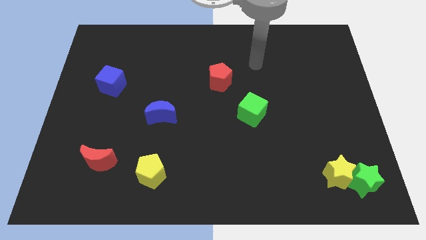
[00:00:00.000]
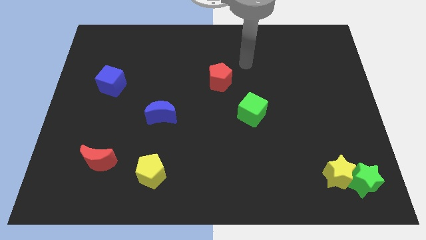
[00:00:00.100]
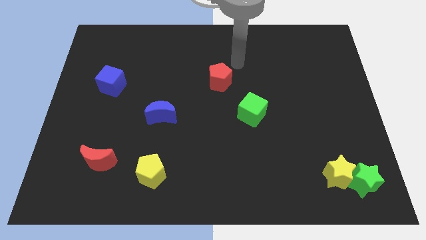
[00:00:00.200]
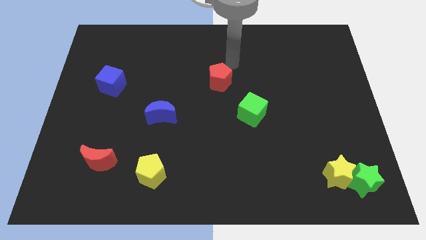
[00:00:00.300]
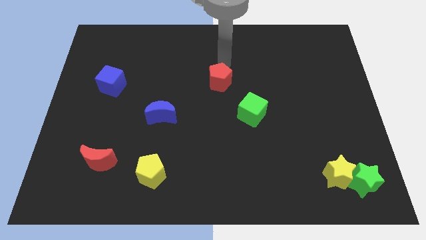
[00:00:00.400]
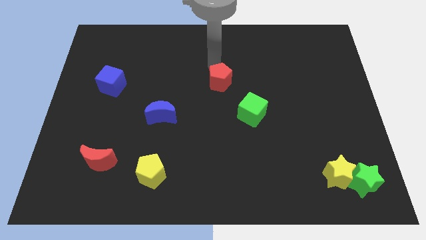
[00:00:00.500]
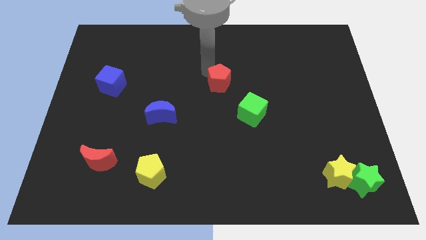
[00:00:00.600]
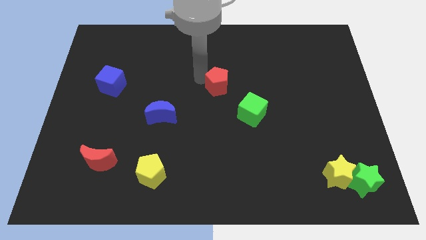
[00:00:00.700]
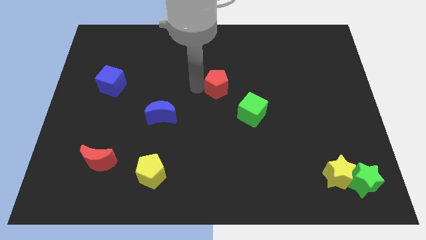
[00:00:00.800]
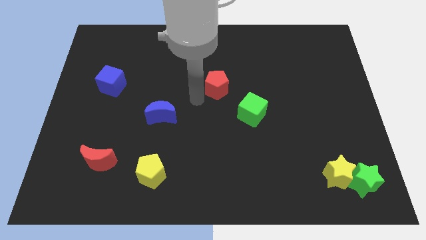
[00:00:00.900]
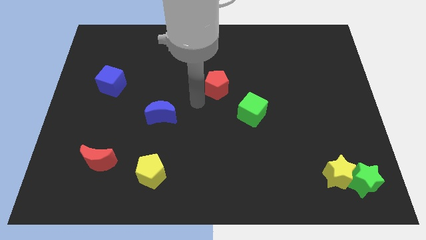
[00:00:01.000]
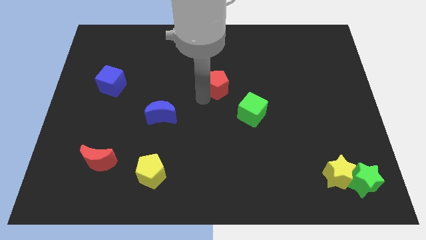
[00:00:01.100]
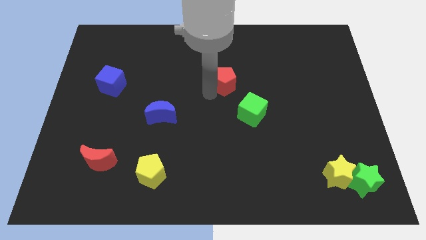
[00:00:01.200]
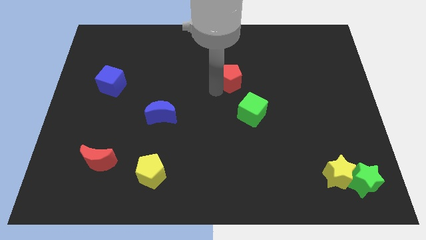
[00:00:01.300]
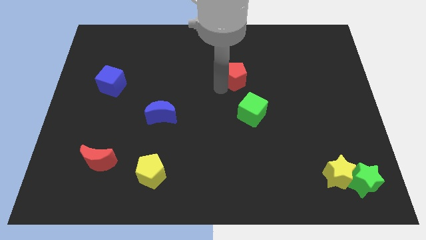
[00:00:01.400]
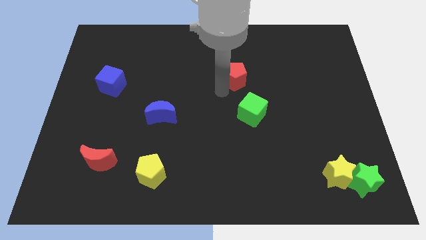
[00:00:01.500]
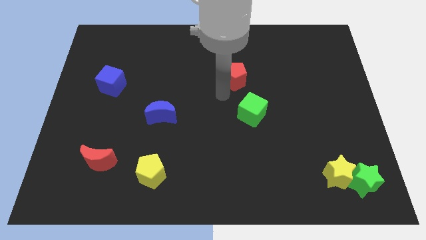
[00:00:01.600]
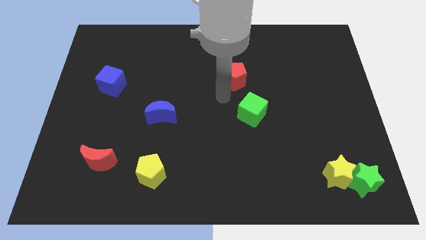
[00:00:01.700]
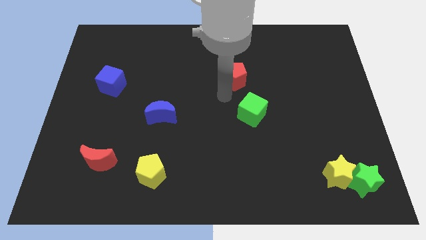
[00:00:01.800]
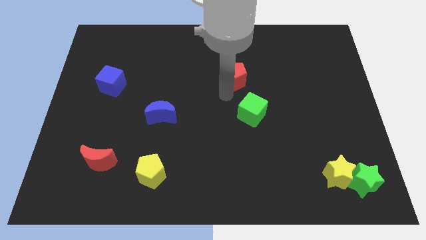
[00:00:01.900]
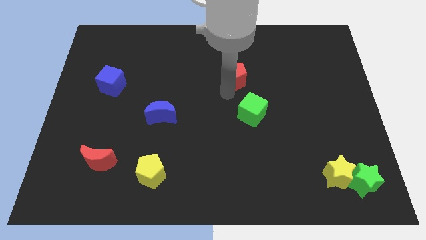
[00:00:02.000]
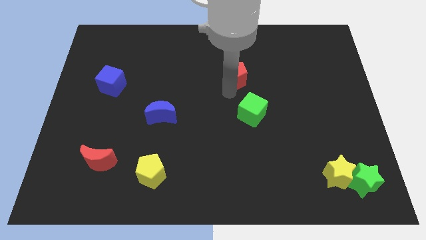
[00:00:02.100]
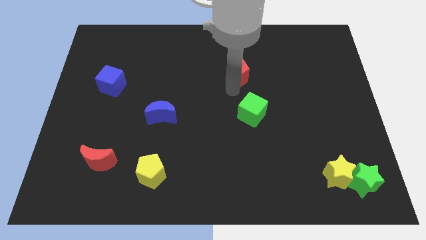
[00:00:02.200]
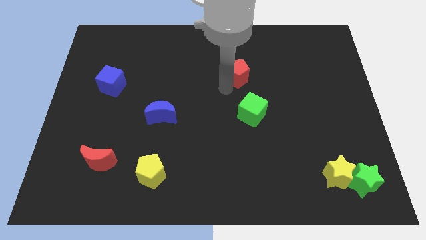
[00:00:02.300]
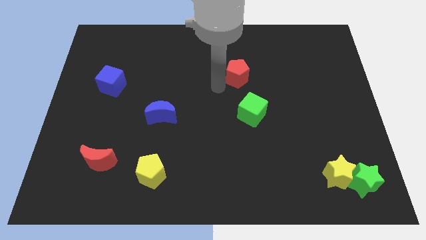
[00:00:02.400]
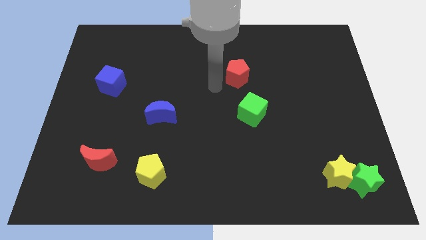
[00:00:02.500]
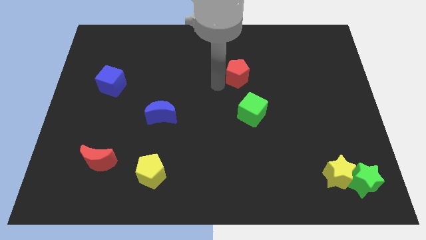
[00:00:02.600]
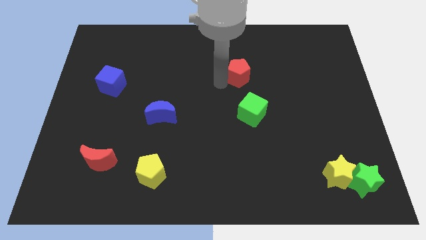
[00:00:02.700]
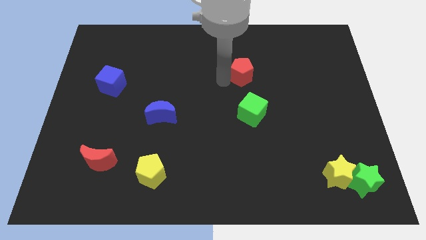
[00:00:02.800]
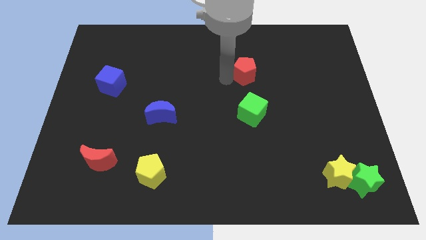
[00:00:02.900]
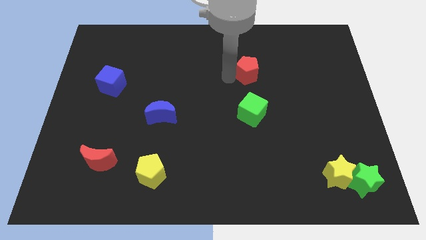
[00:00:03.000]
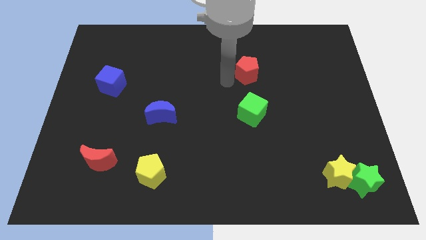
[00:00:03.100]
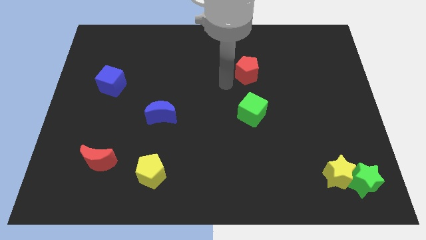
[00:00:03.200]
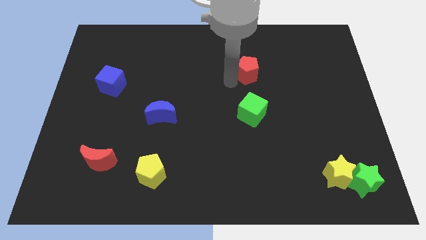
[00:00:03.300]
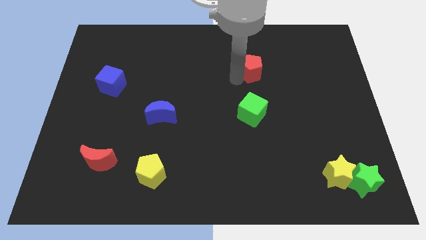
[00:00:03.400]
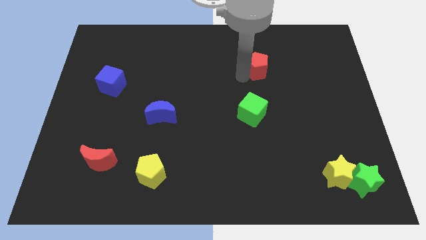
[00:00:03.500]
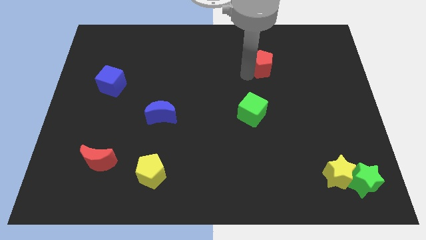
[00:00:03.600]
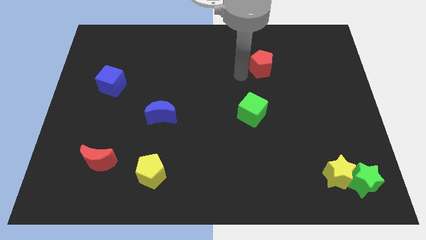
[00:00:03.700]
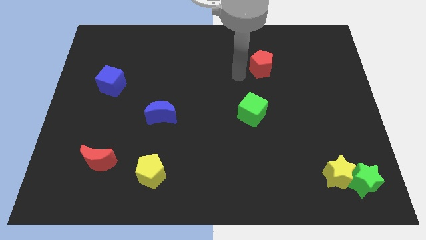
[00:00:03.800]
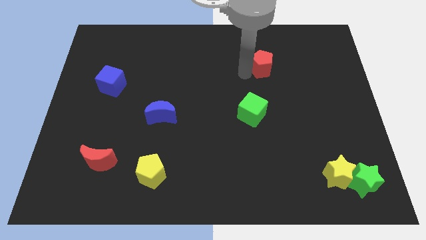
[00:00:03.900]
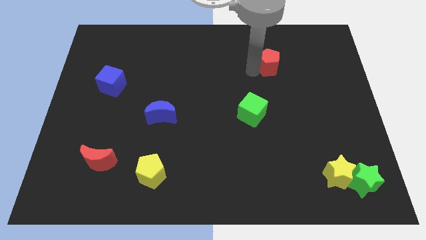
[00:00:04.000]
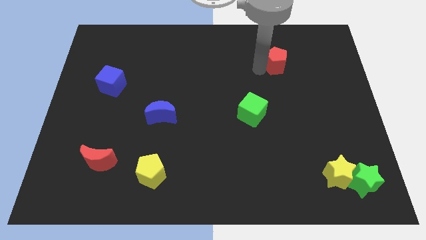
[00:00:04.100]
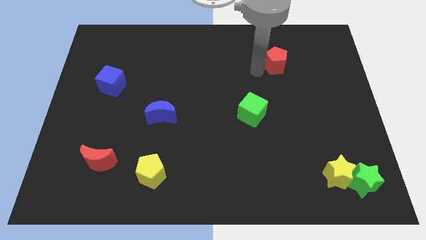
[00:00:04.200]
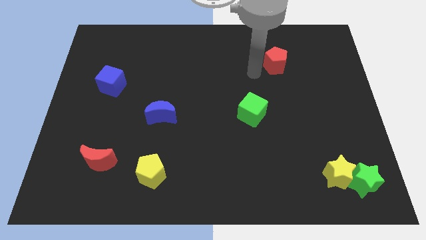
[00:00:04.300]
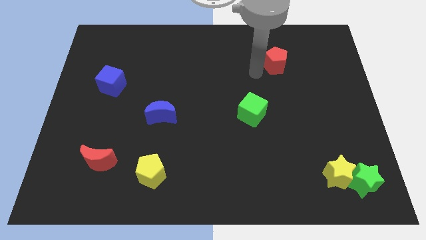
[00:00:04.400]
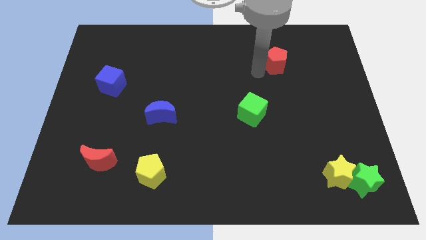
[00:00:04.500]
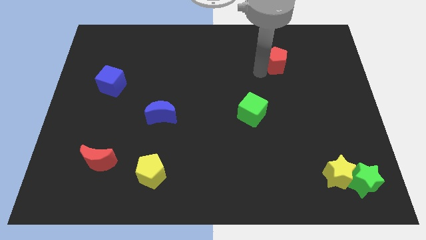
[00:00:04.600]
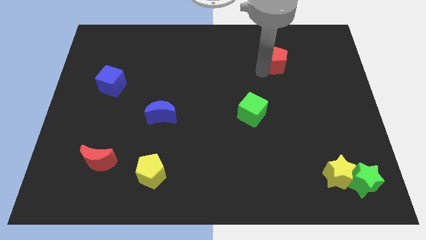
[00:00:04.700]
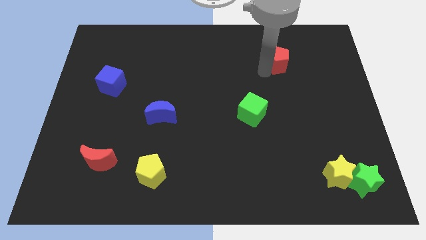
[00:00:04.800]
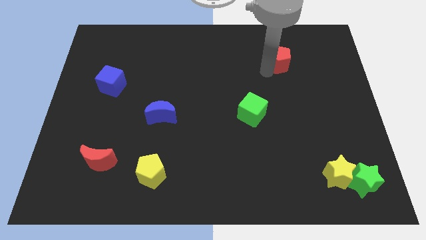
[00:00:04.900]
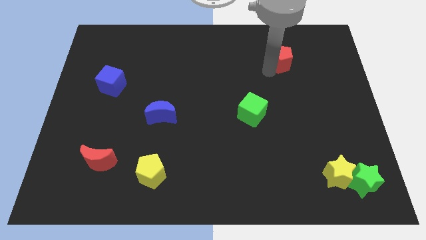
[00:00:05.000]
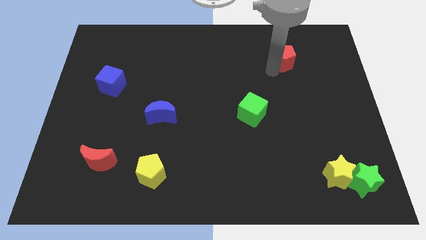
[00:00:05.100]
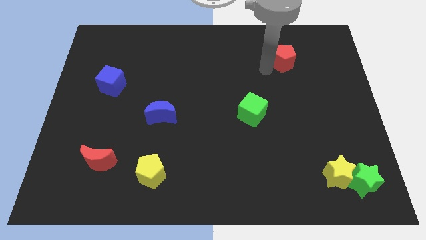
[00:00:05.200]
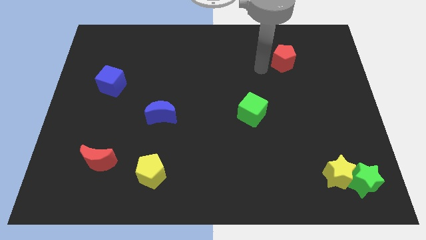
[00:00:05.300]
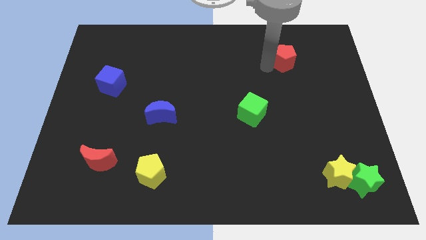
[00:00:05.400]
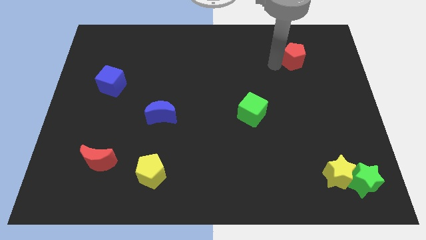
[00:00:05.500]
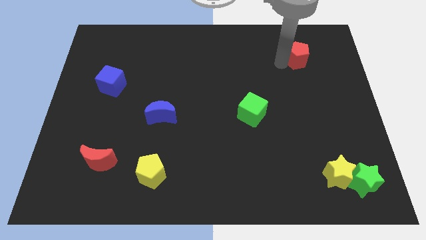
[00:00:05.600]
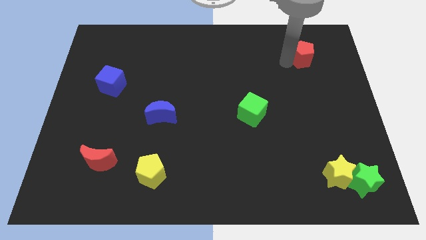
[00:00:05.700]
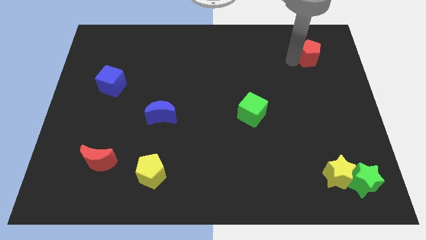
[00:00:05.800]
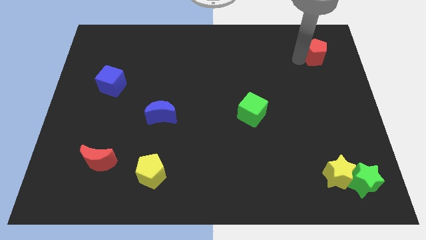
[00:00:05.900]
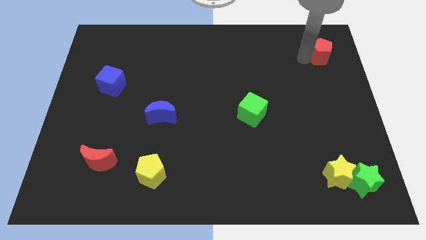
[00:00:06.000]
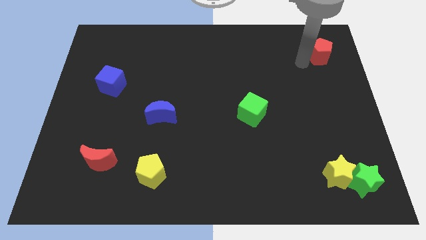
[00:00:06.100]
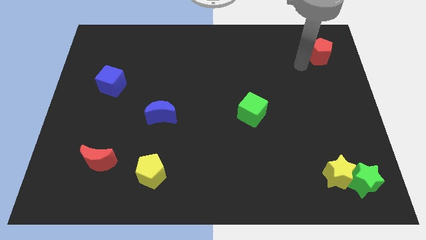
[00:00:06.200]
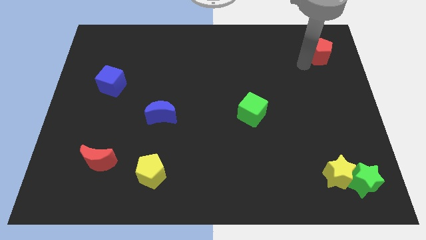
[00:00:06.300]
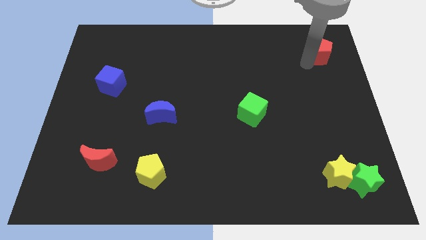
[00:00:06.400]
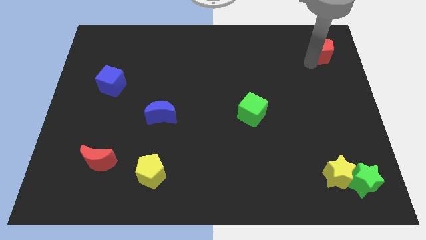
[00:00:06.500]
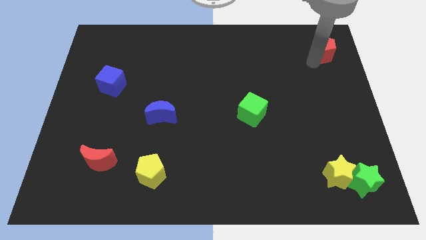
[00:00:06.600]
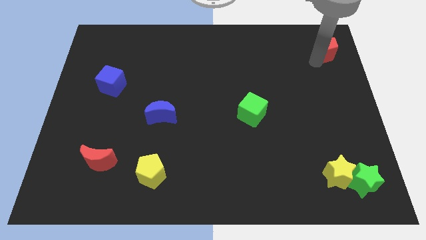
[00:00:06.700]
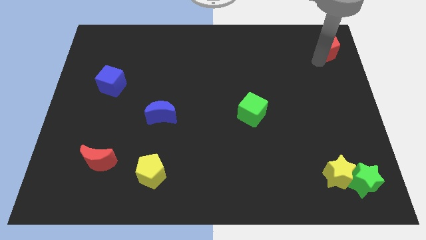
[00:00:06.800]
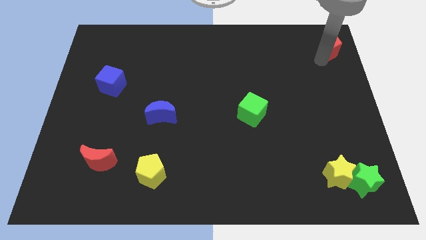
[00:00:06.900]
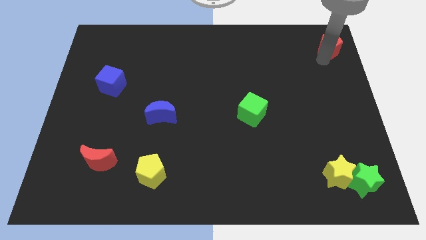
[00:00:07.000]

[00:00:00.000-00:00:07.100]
put the red pentagon to the top right corner

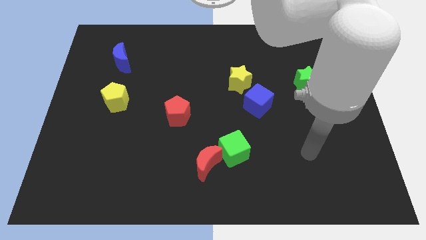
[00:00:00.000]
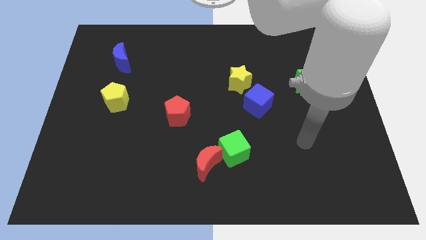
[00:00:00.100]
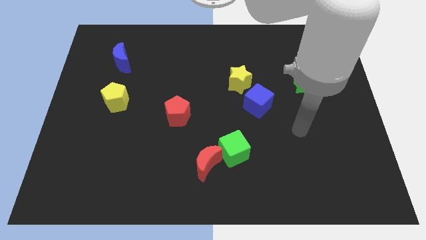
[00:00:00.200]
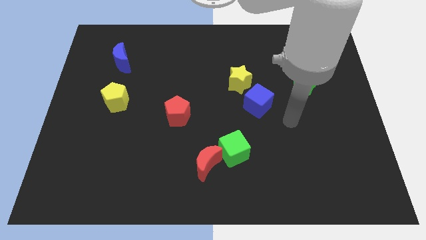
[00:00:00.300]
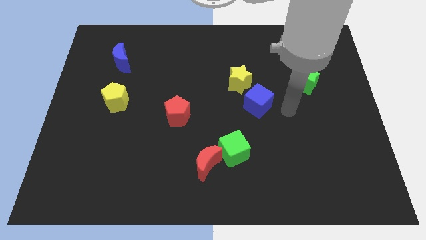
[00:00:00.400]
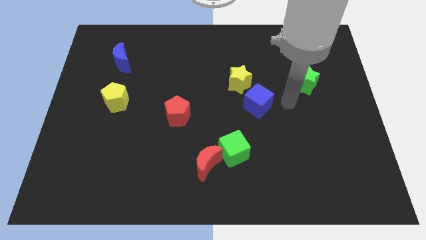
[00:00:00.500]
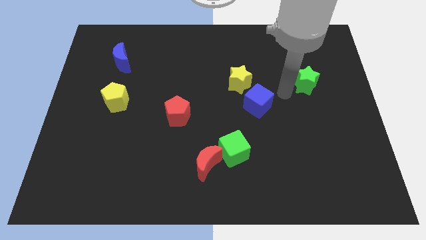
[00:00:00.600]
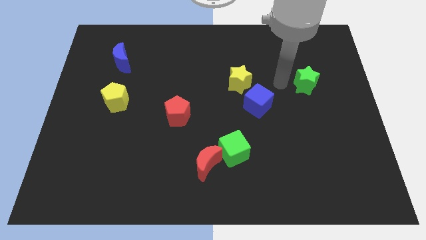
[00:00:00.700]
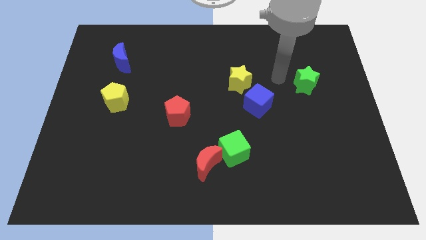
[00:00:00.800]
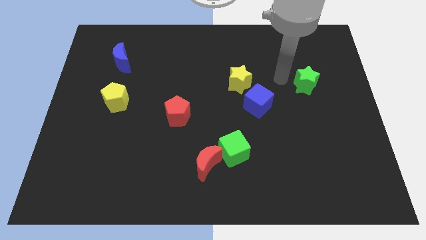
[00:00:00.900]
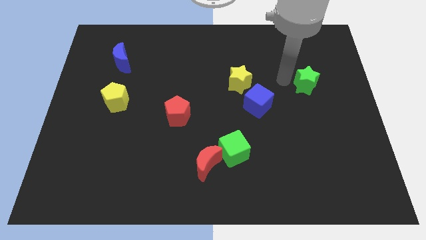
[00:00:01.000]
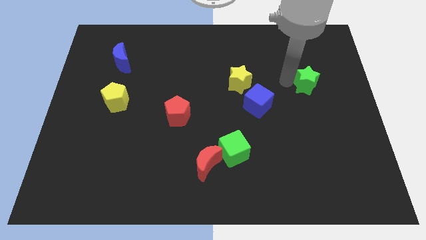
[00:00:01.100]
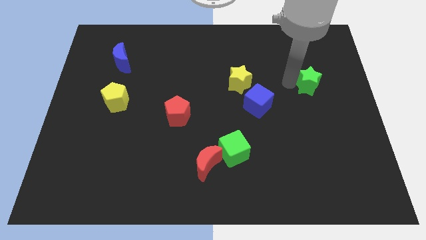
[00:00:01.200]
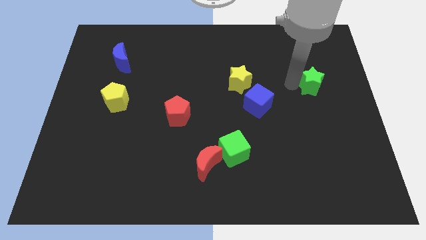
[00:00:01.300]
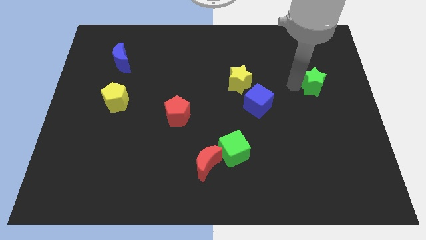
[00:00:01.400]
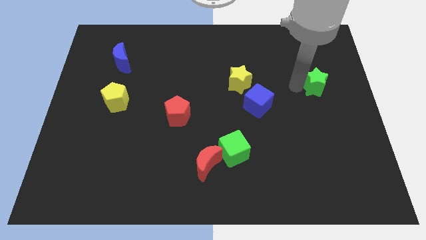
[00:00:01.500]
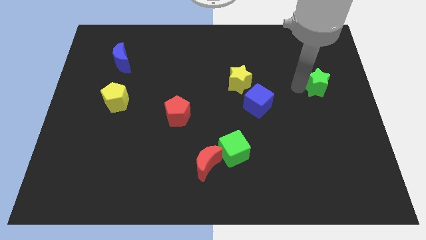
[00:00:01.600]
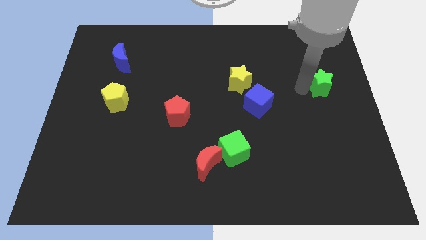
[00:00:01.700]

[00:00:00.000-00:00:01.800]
push the green star to the right side of the board
